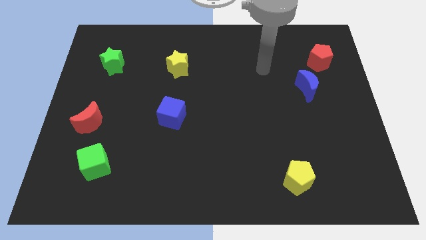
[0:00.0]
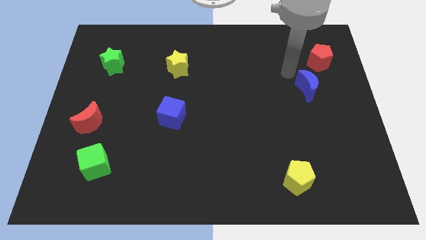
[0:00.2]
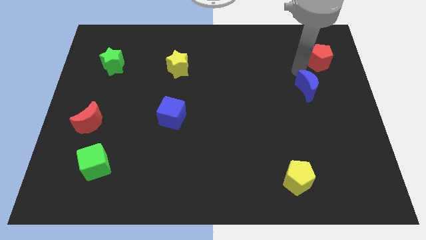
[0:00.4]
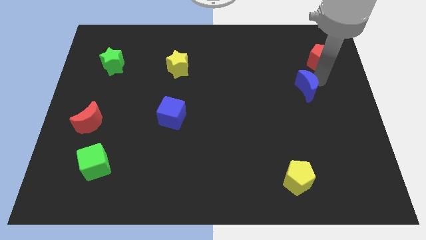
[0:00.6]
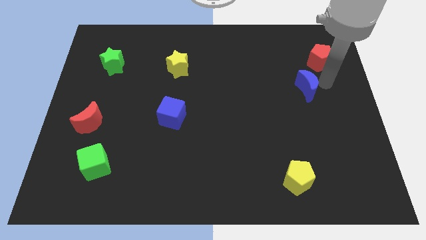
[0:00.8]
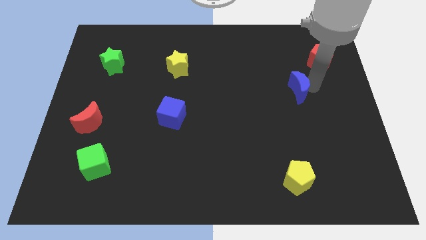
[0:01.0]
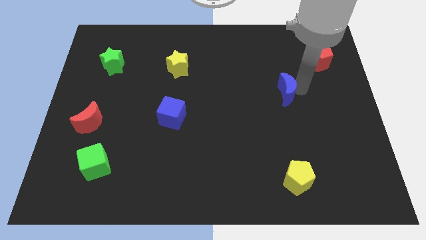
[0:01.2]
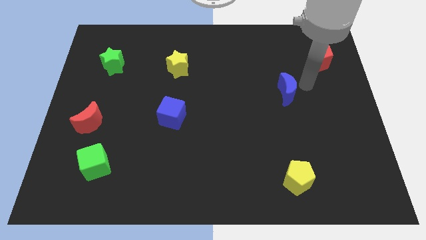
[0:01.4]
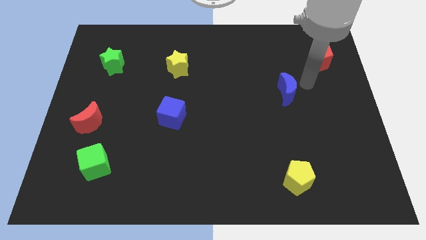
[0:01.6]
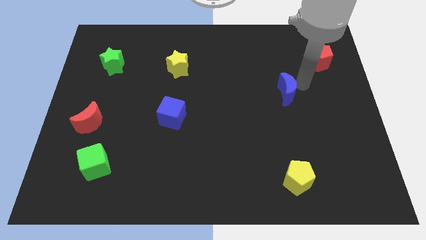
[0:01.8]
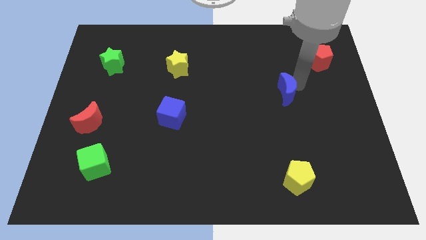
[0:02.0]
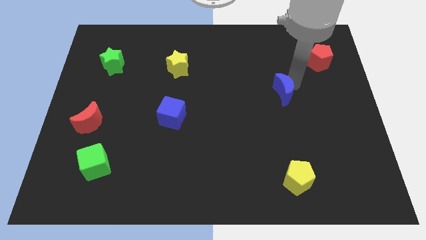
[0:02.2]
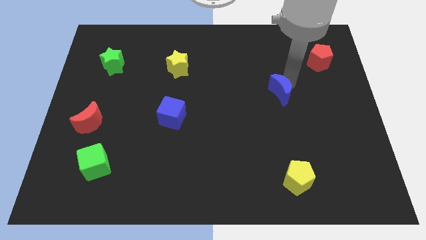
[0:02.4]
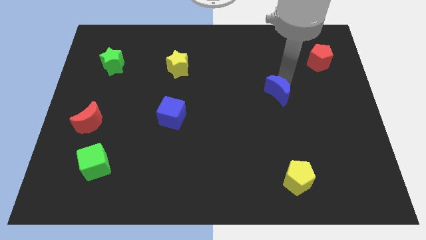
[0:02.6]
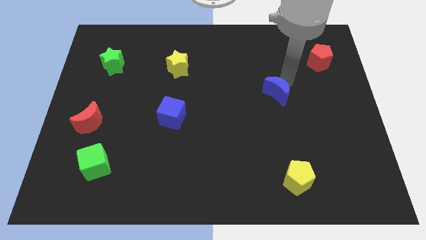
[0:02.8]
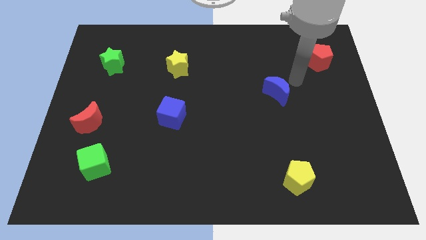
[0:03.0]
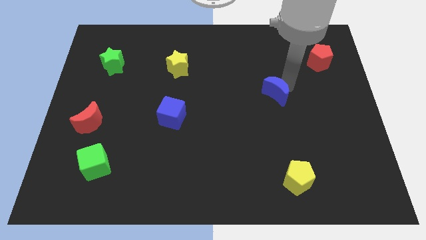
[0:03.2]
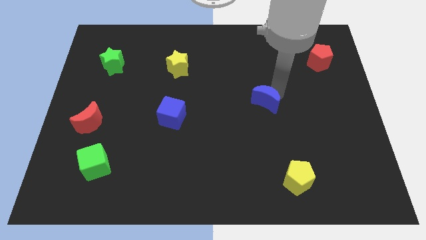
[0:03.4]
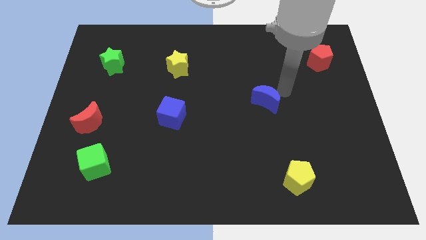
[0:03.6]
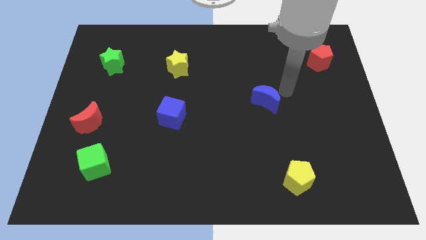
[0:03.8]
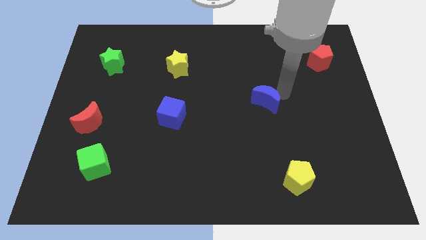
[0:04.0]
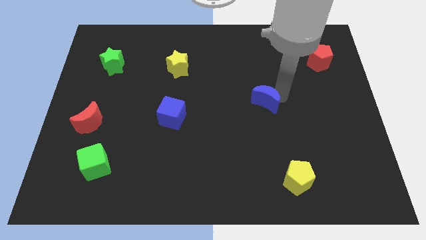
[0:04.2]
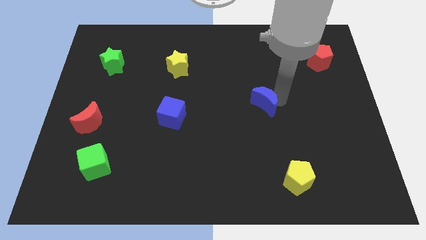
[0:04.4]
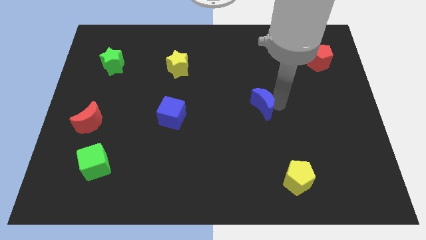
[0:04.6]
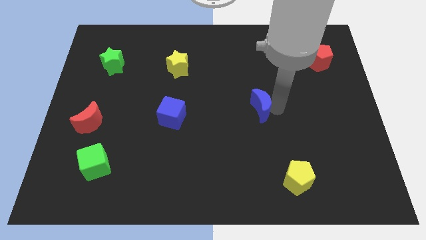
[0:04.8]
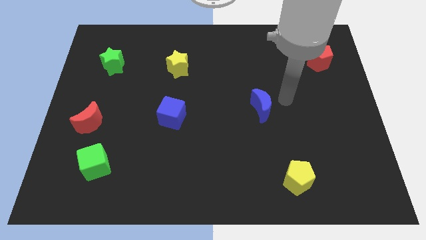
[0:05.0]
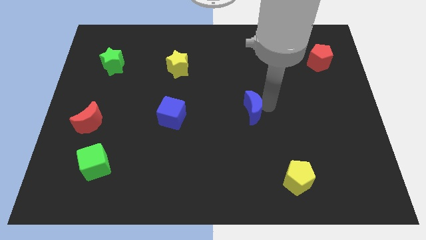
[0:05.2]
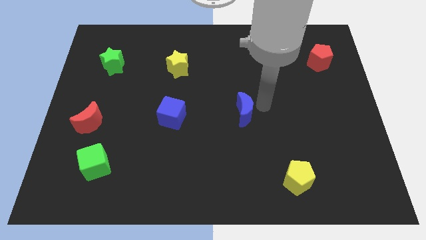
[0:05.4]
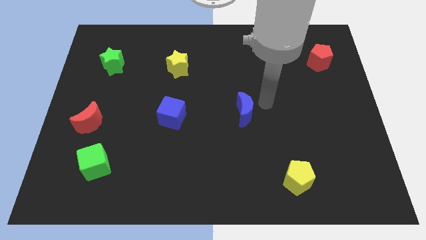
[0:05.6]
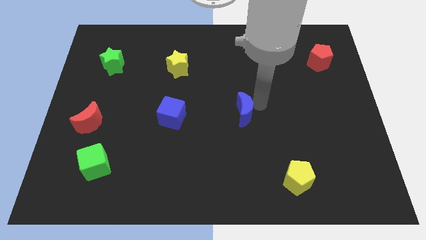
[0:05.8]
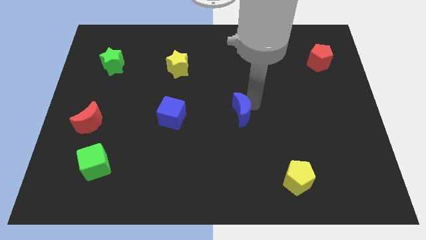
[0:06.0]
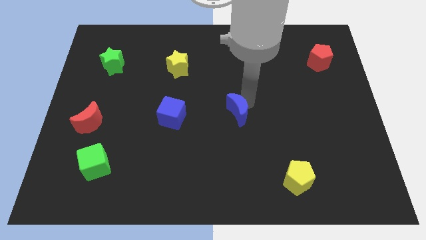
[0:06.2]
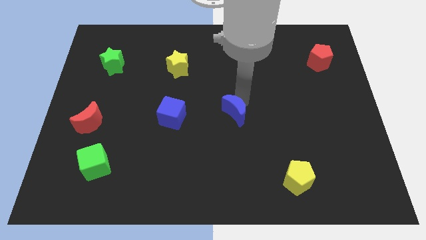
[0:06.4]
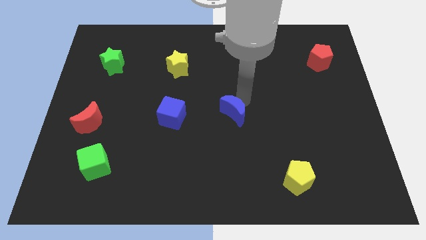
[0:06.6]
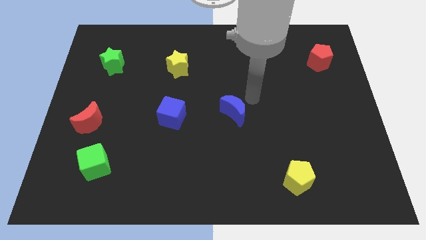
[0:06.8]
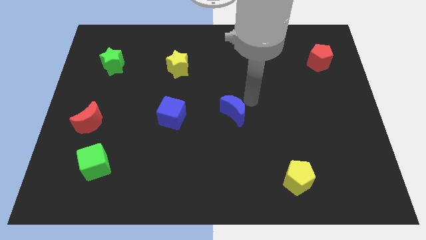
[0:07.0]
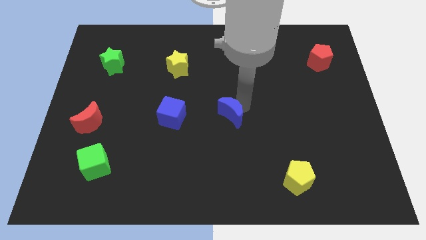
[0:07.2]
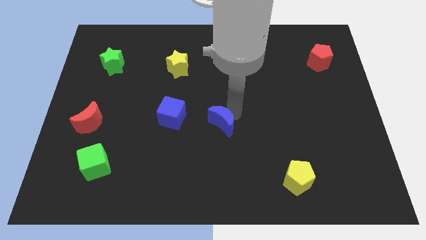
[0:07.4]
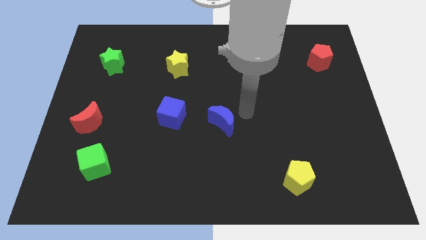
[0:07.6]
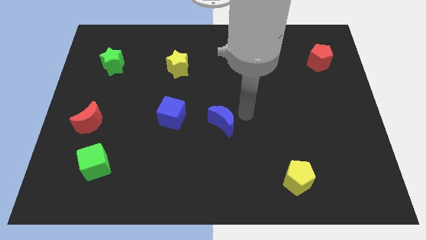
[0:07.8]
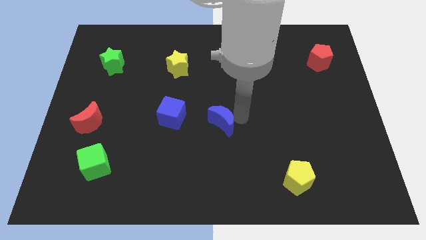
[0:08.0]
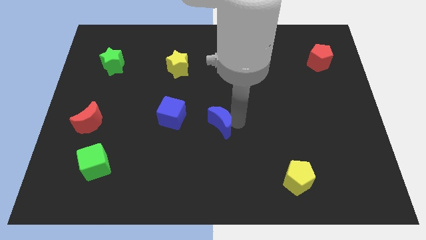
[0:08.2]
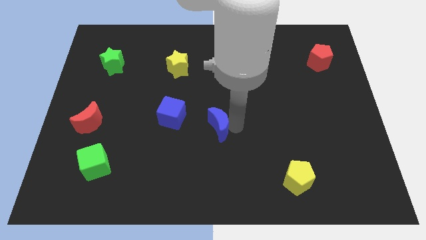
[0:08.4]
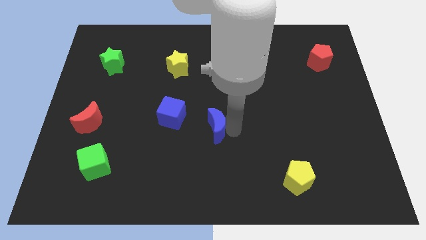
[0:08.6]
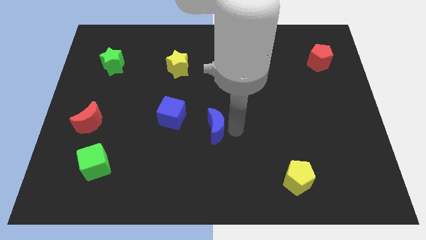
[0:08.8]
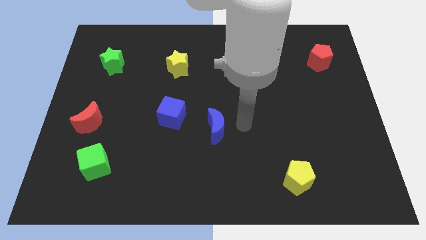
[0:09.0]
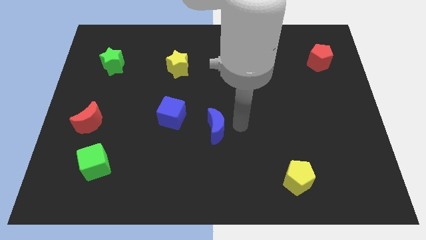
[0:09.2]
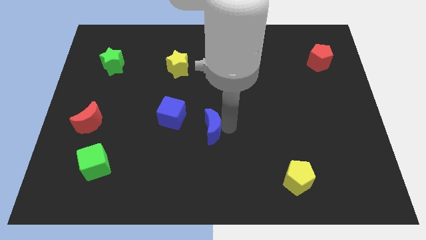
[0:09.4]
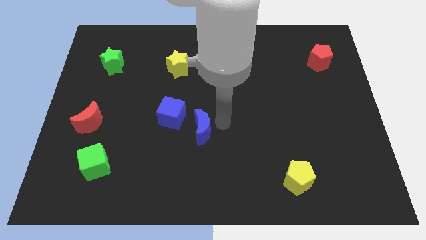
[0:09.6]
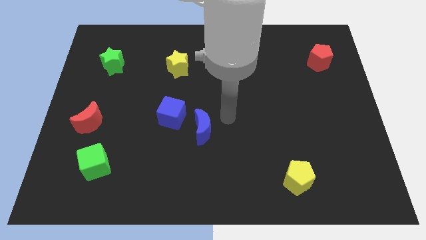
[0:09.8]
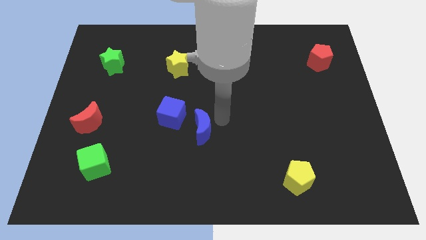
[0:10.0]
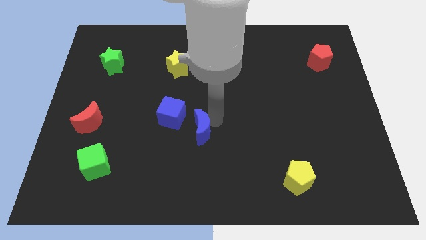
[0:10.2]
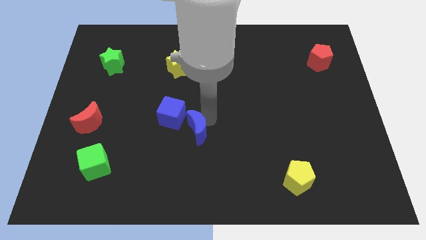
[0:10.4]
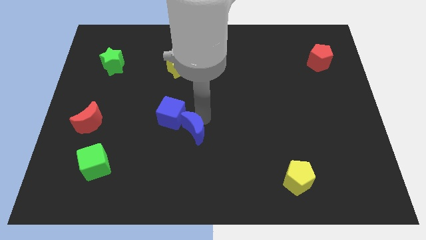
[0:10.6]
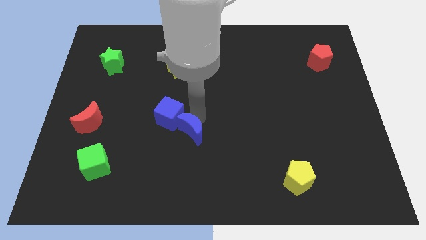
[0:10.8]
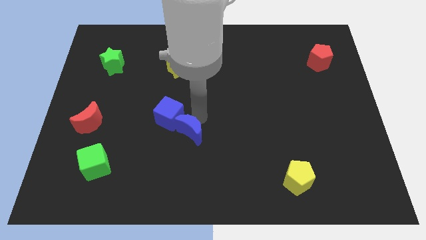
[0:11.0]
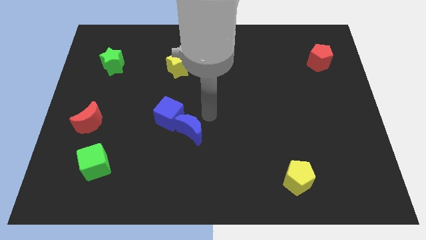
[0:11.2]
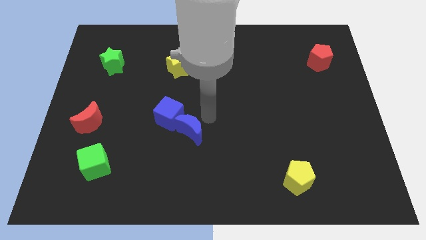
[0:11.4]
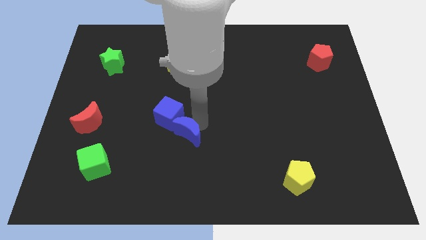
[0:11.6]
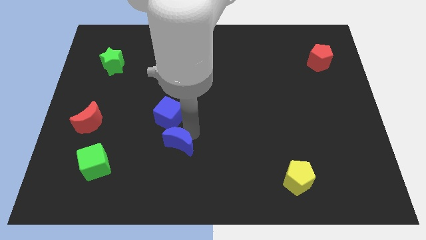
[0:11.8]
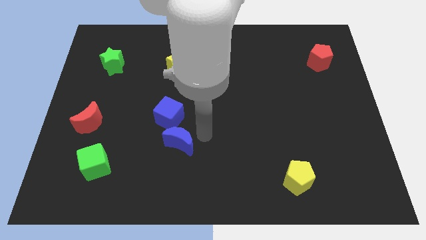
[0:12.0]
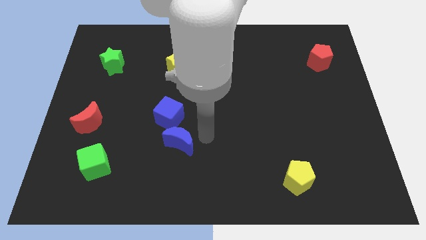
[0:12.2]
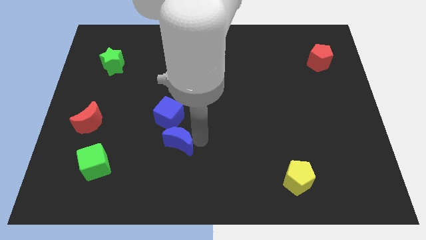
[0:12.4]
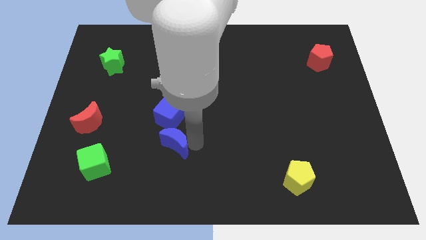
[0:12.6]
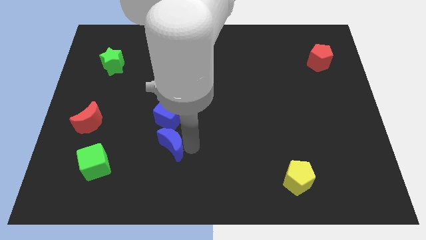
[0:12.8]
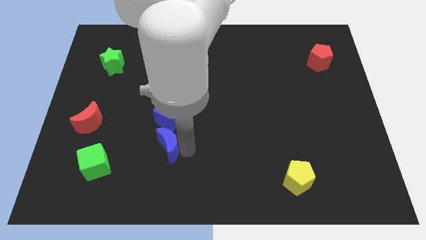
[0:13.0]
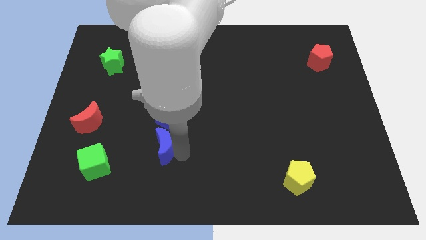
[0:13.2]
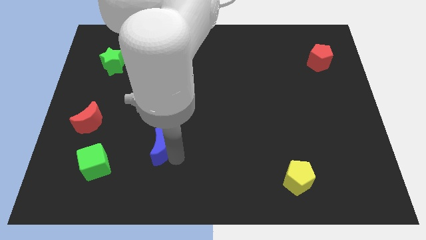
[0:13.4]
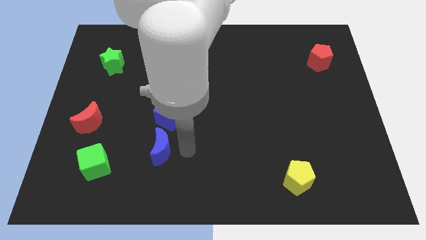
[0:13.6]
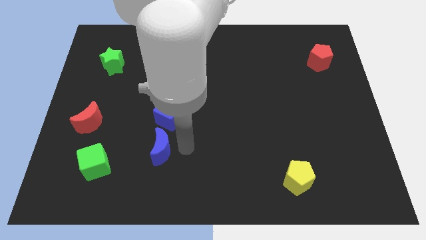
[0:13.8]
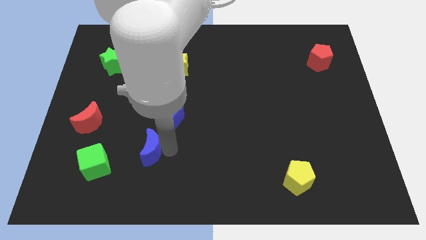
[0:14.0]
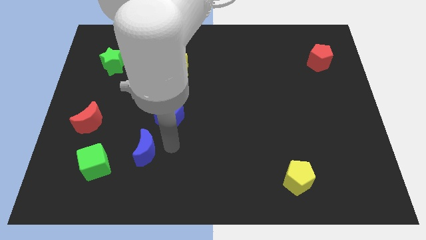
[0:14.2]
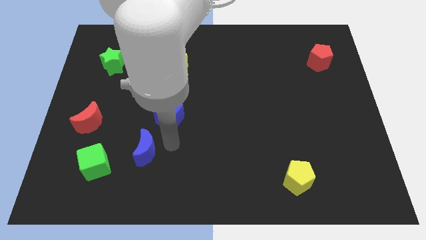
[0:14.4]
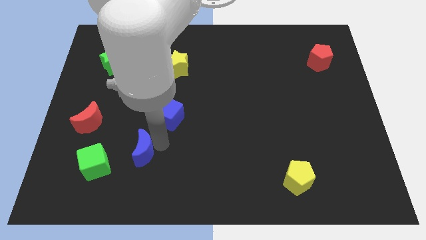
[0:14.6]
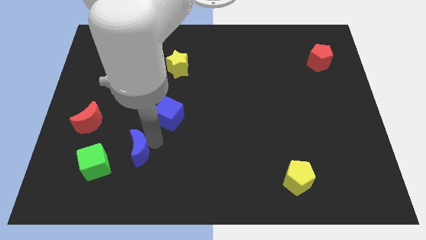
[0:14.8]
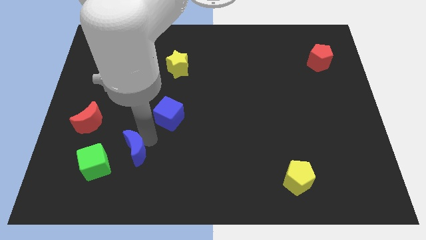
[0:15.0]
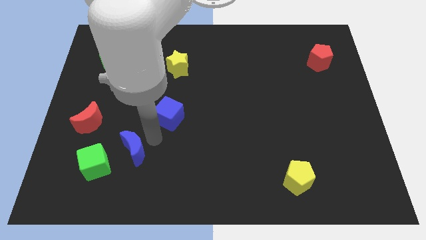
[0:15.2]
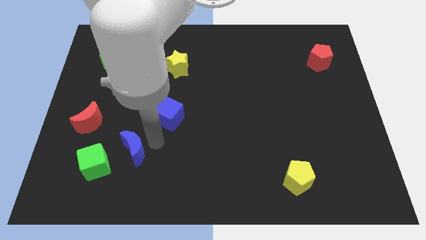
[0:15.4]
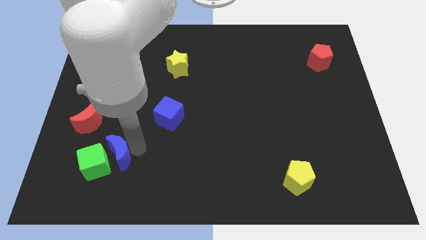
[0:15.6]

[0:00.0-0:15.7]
put the blue moon next to the green cube
